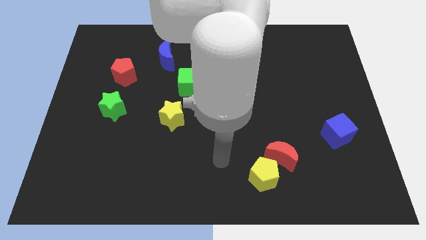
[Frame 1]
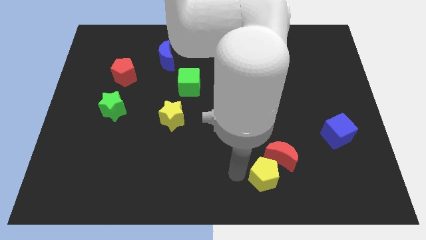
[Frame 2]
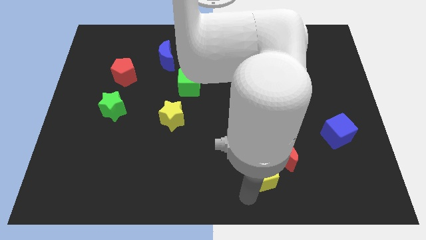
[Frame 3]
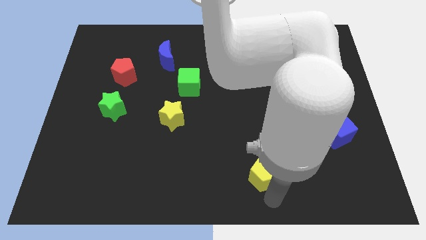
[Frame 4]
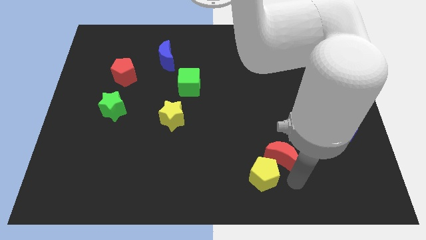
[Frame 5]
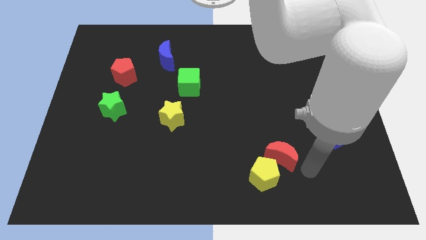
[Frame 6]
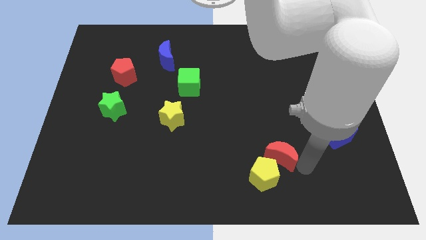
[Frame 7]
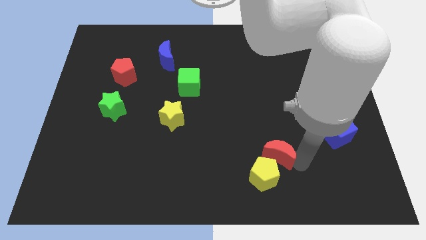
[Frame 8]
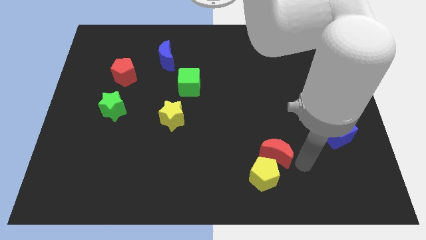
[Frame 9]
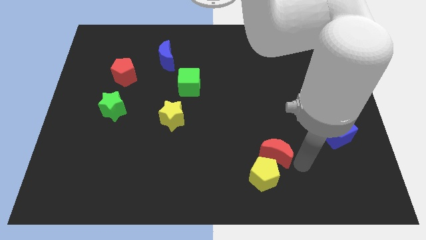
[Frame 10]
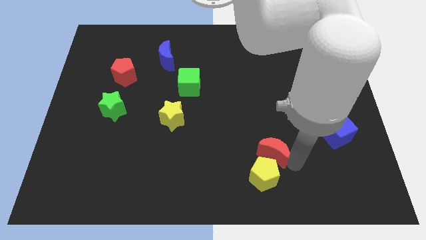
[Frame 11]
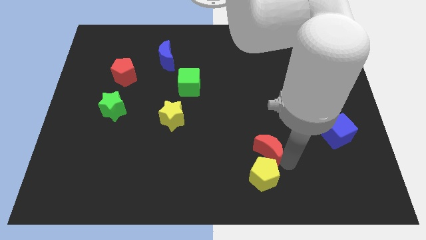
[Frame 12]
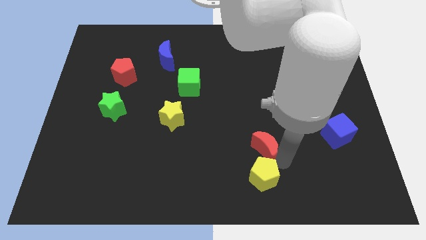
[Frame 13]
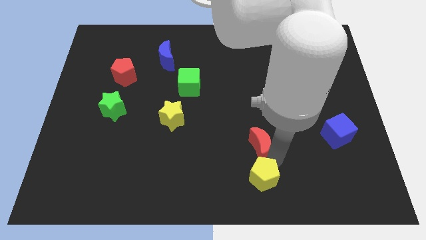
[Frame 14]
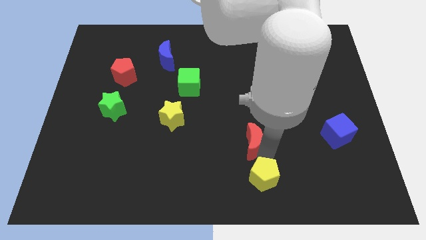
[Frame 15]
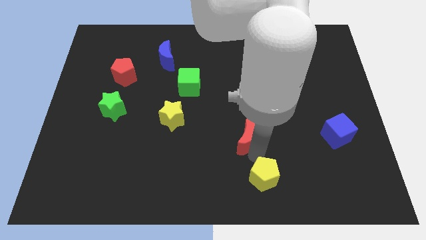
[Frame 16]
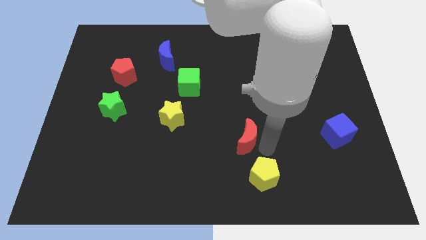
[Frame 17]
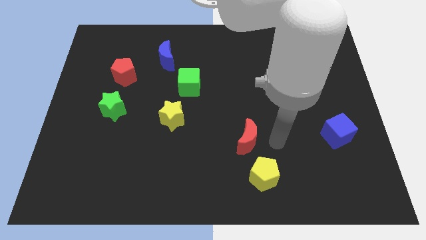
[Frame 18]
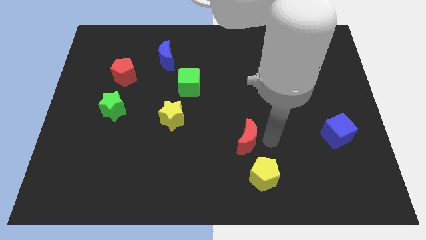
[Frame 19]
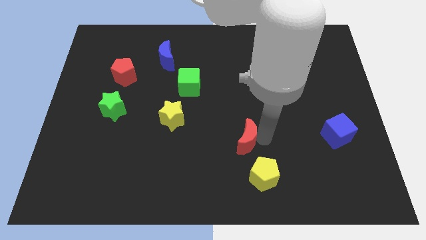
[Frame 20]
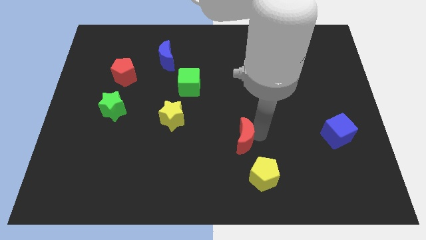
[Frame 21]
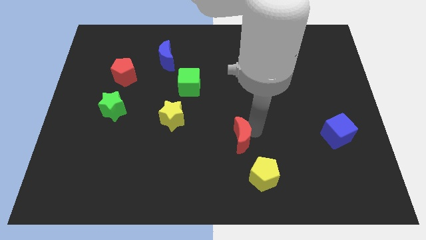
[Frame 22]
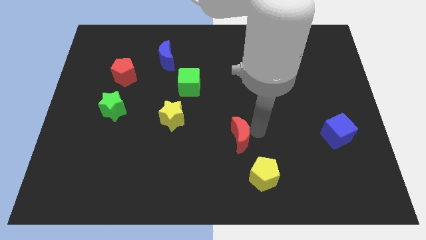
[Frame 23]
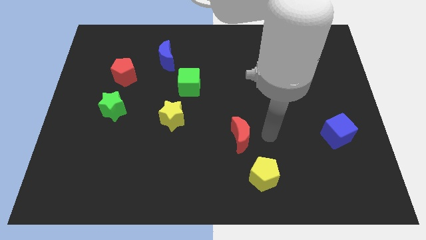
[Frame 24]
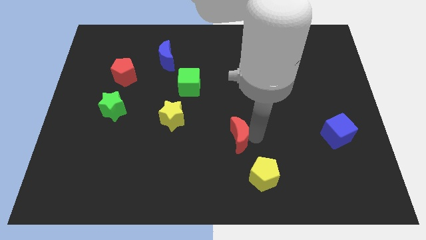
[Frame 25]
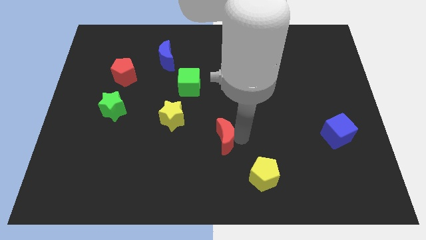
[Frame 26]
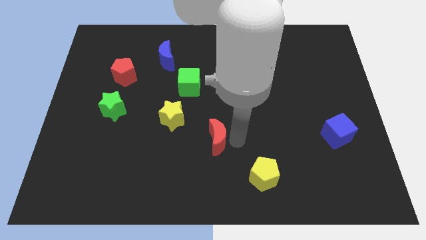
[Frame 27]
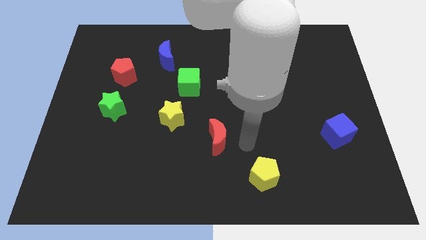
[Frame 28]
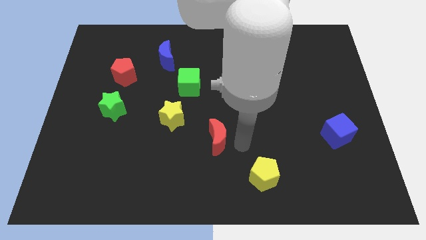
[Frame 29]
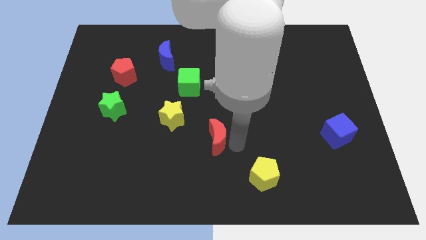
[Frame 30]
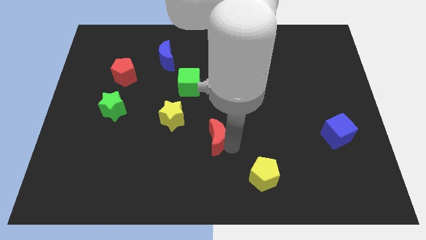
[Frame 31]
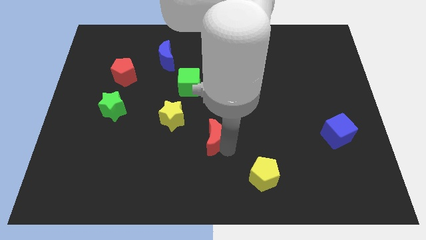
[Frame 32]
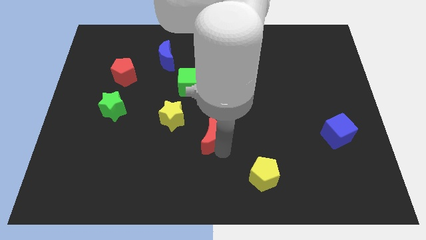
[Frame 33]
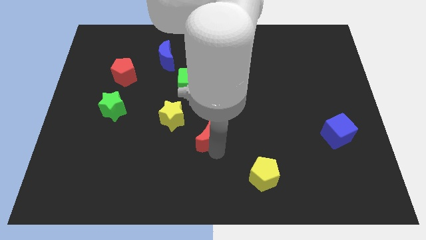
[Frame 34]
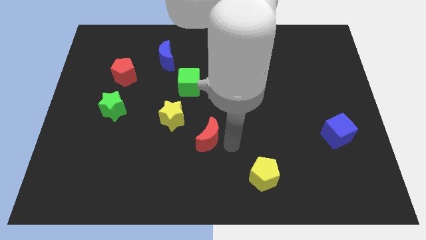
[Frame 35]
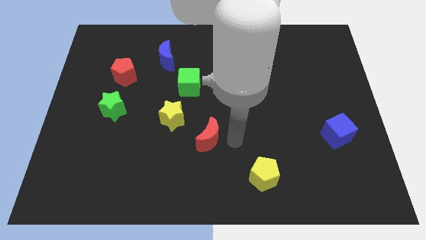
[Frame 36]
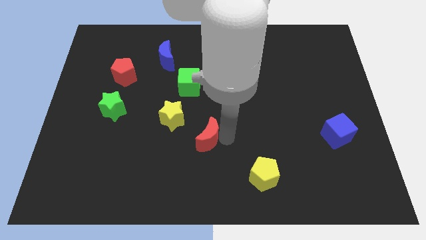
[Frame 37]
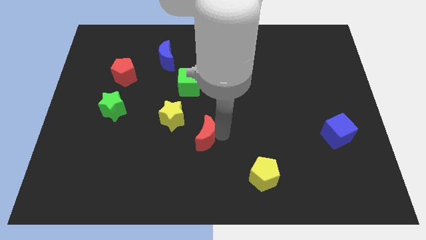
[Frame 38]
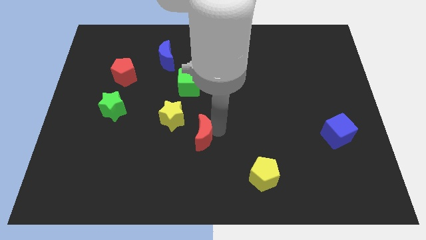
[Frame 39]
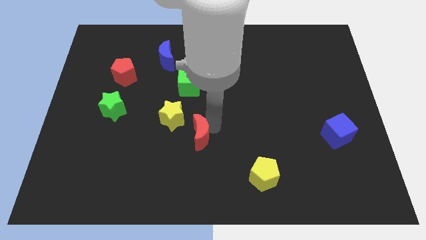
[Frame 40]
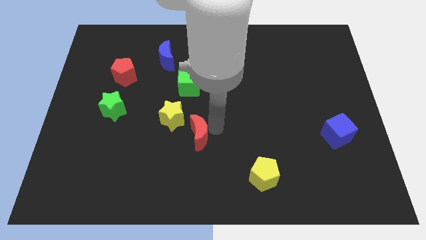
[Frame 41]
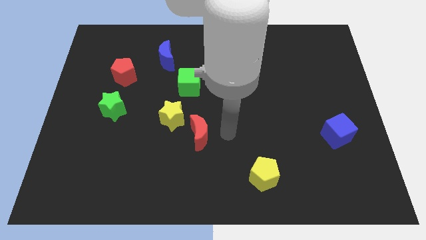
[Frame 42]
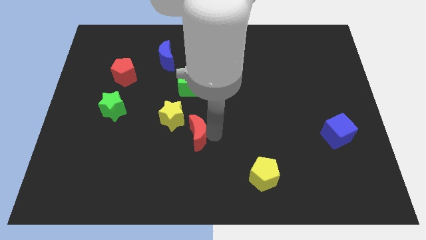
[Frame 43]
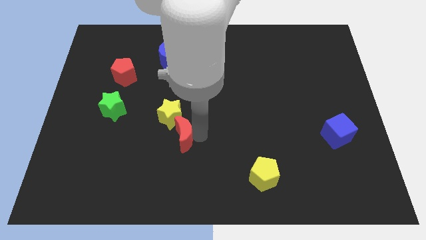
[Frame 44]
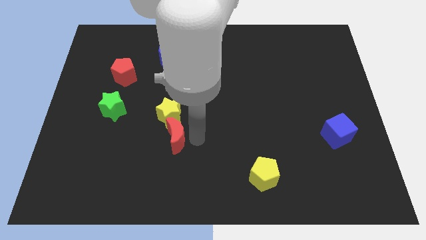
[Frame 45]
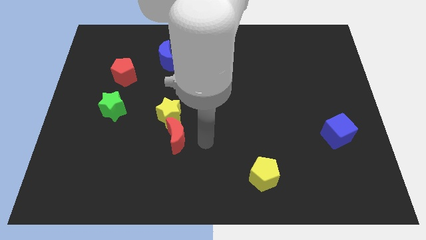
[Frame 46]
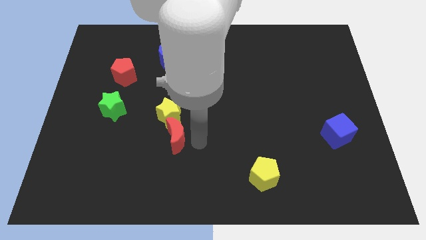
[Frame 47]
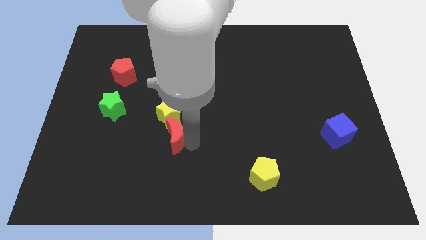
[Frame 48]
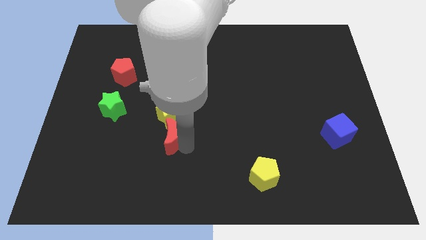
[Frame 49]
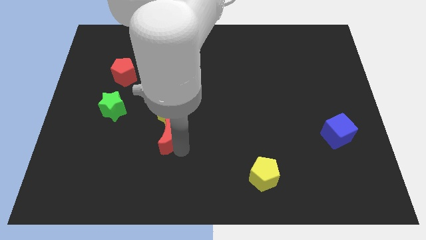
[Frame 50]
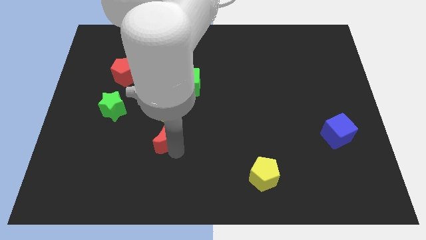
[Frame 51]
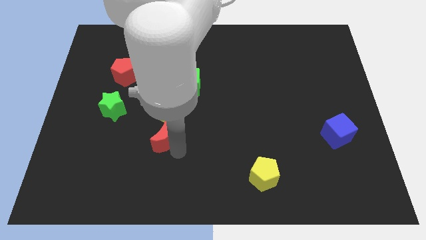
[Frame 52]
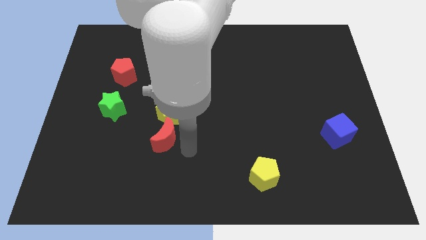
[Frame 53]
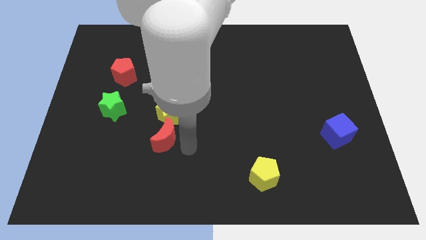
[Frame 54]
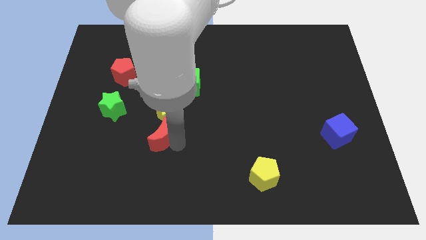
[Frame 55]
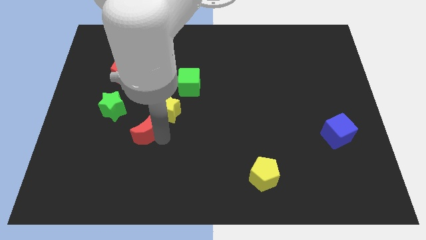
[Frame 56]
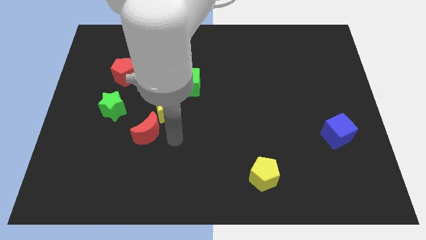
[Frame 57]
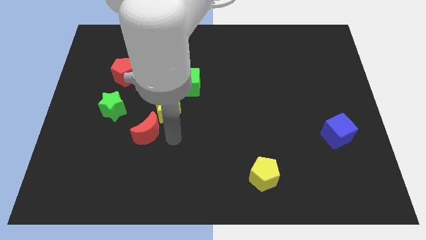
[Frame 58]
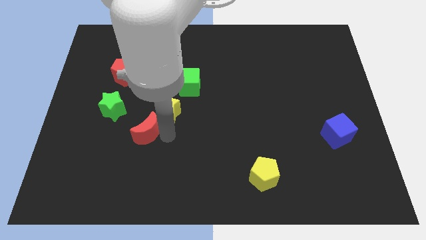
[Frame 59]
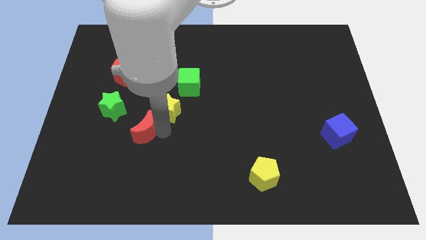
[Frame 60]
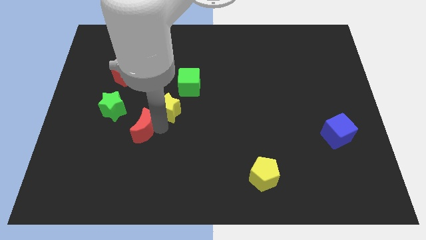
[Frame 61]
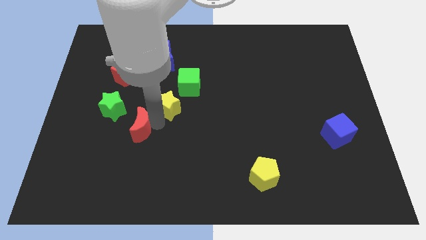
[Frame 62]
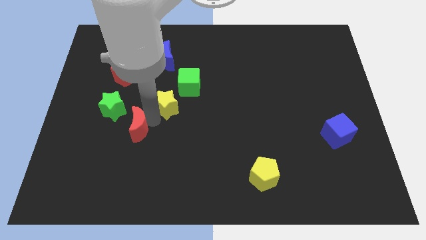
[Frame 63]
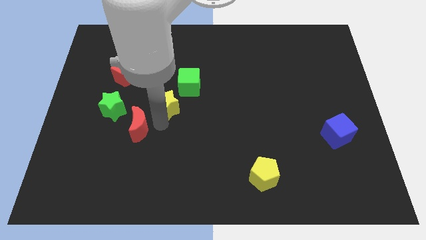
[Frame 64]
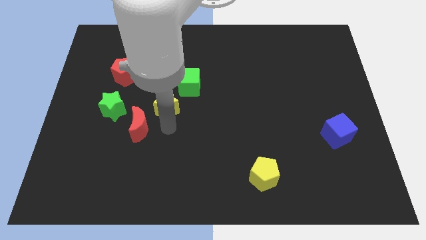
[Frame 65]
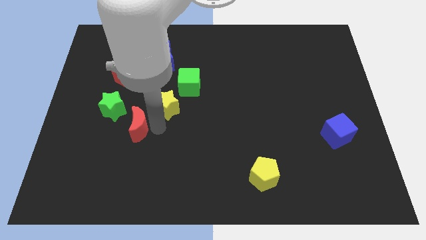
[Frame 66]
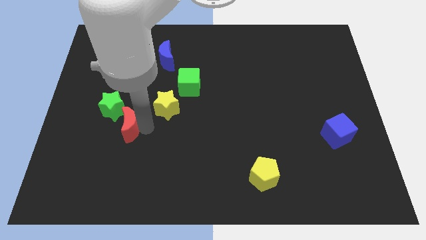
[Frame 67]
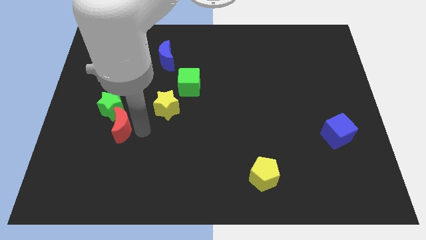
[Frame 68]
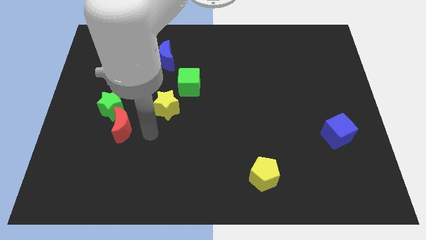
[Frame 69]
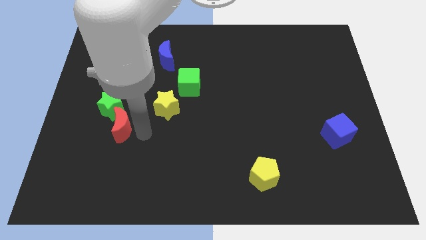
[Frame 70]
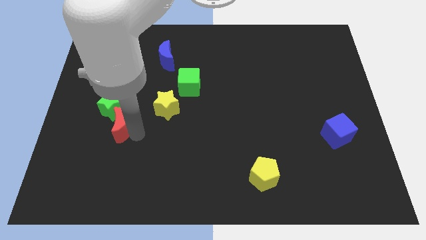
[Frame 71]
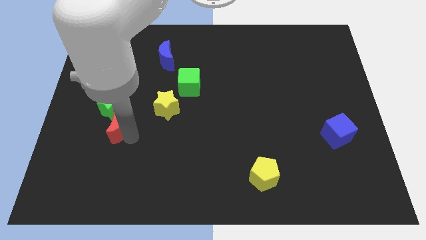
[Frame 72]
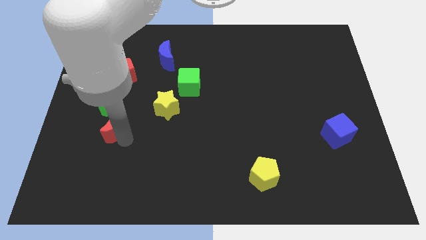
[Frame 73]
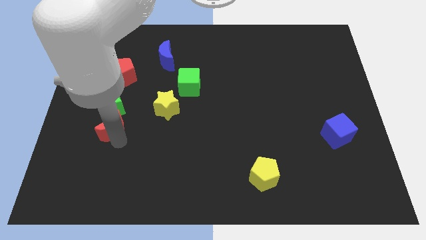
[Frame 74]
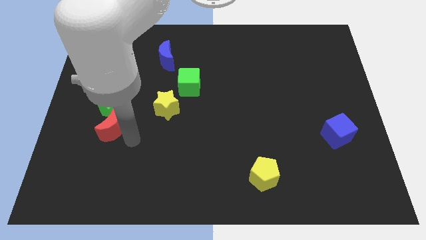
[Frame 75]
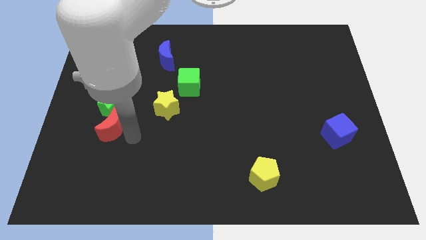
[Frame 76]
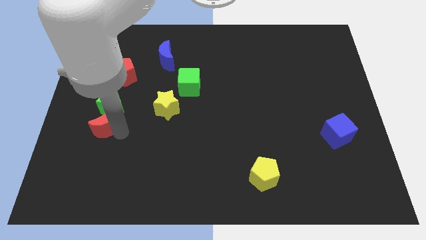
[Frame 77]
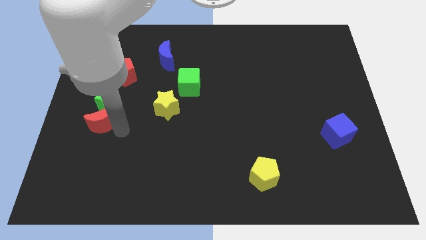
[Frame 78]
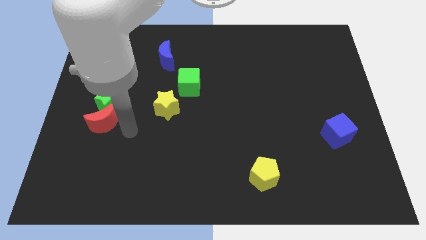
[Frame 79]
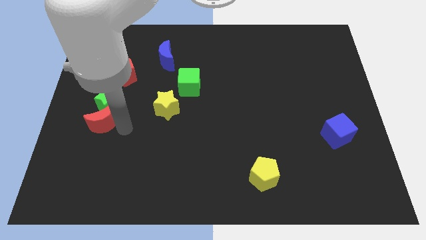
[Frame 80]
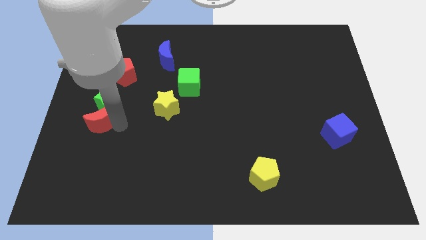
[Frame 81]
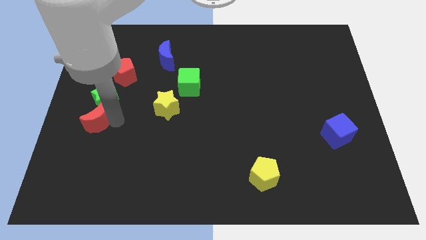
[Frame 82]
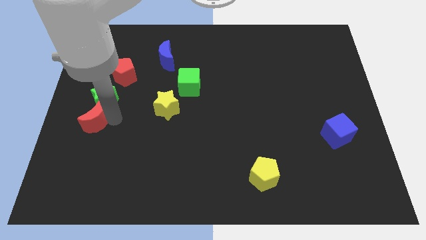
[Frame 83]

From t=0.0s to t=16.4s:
slide the red moon to the left side of the board
